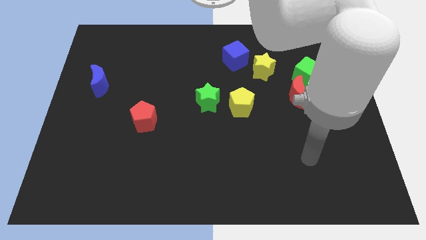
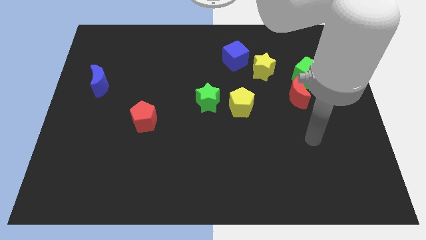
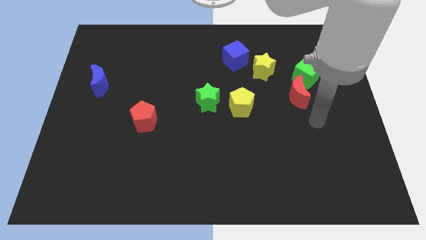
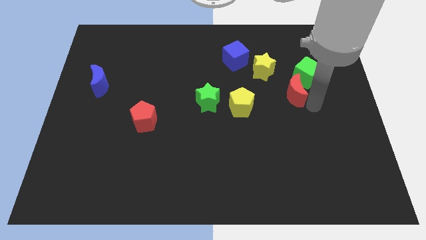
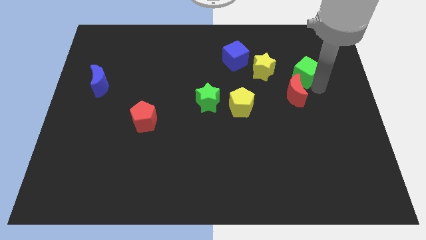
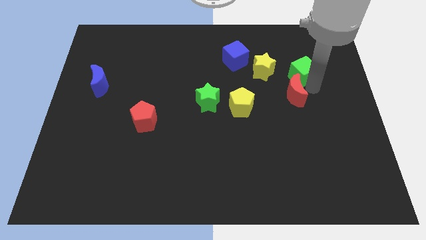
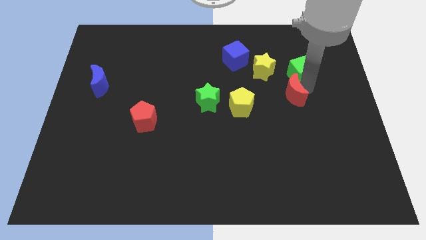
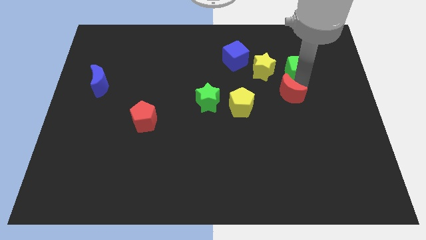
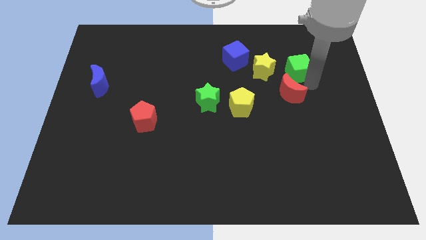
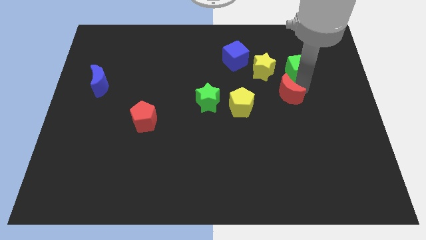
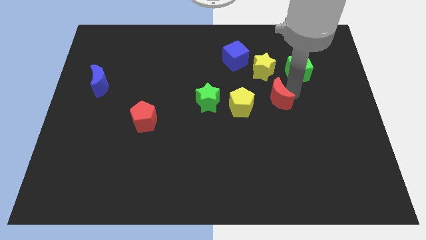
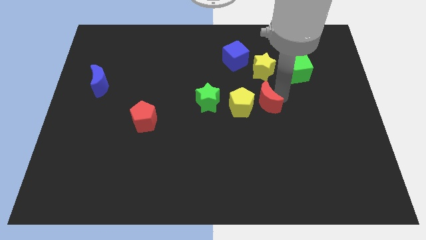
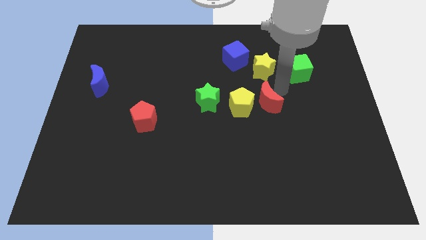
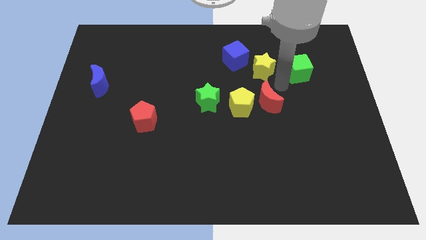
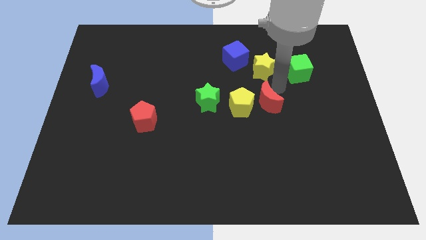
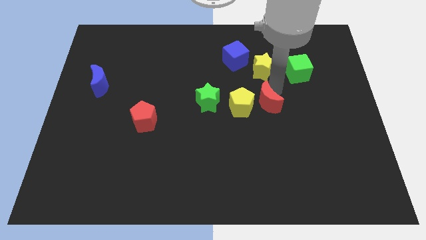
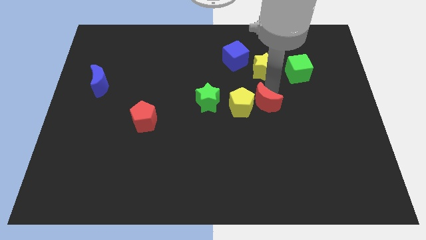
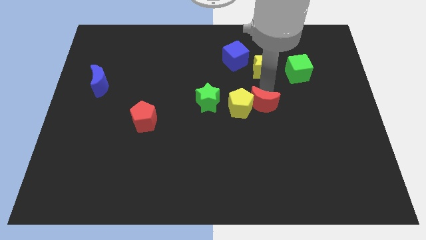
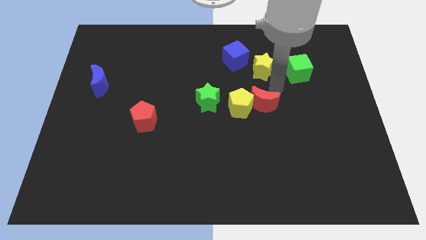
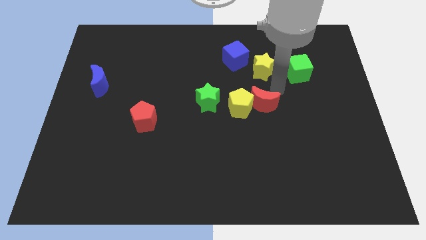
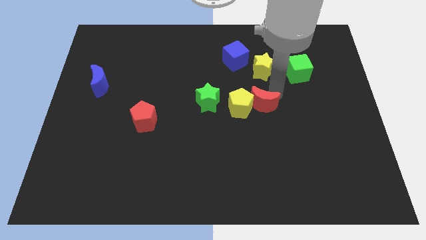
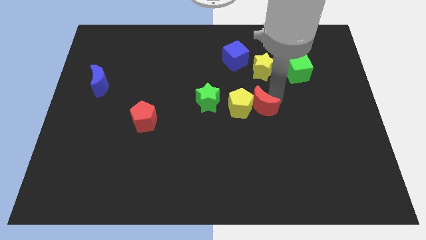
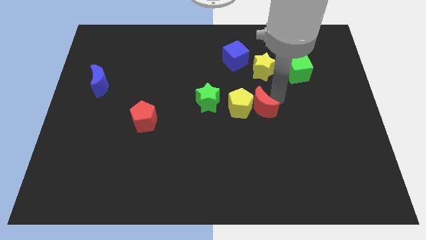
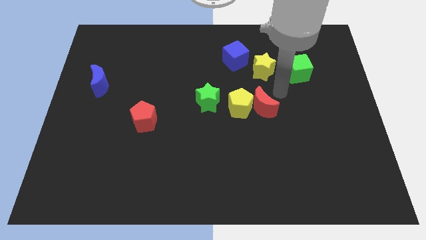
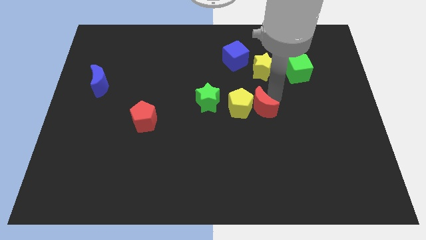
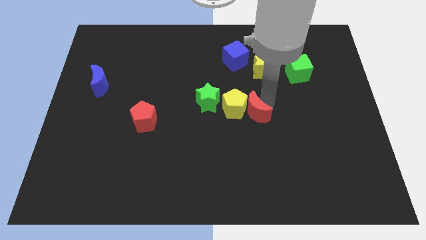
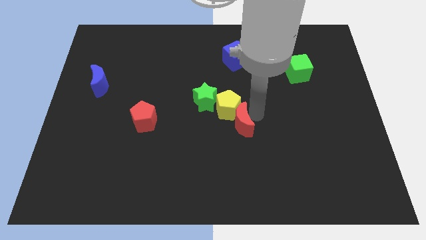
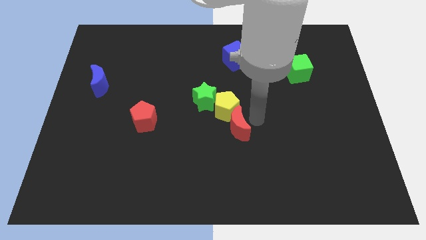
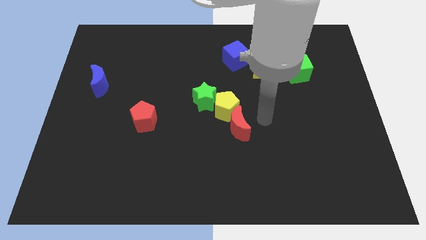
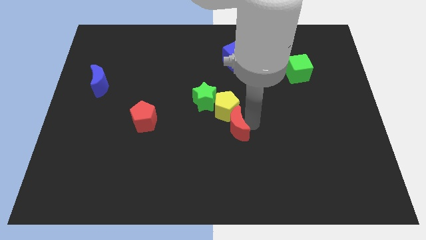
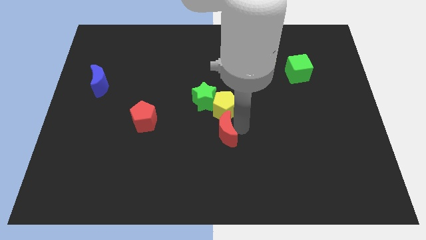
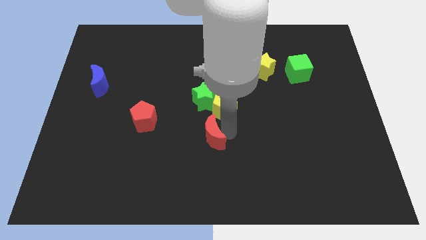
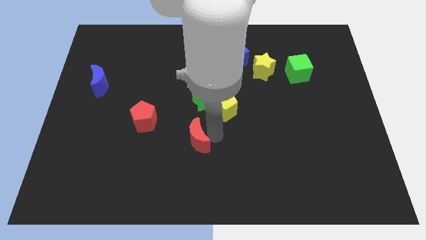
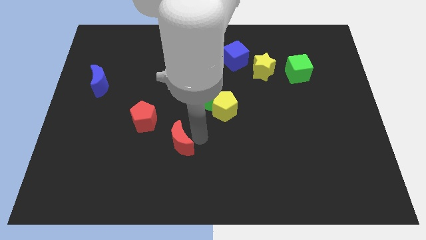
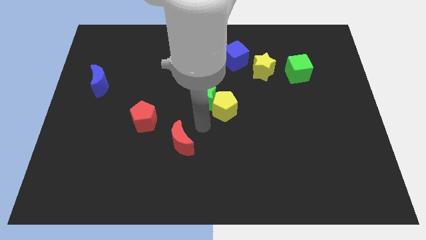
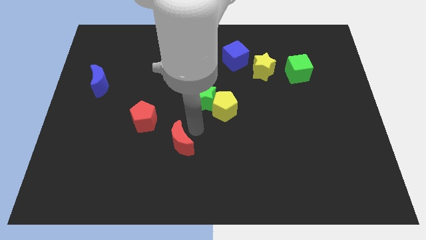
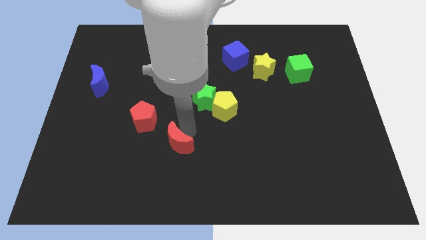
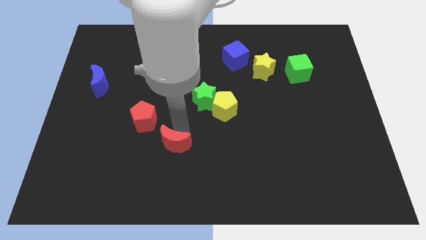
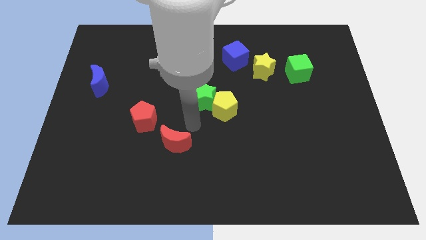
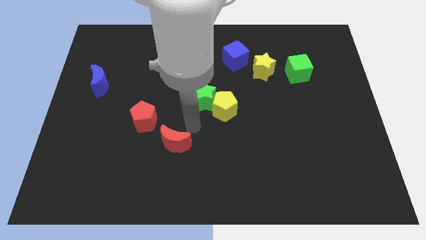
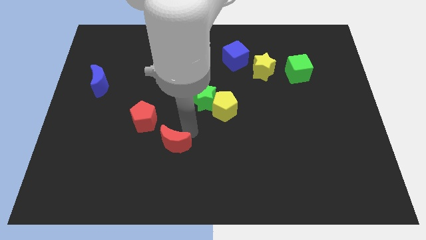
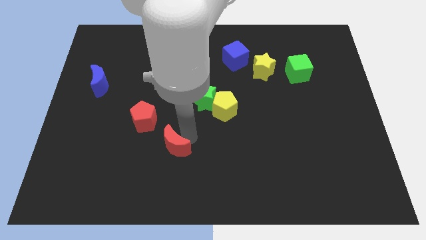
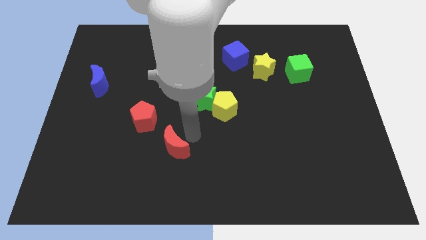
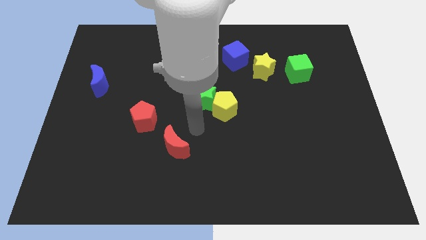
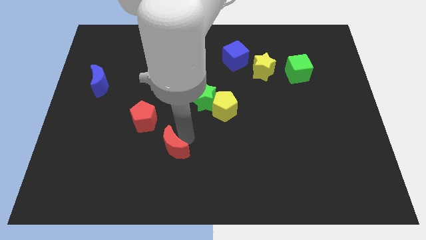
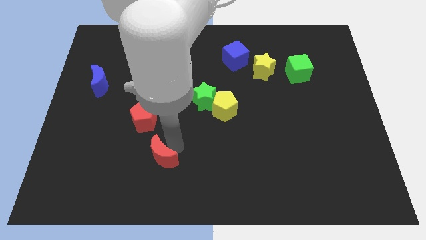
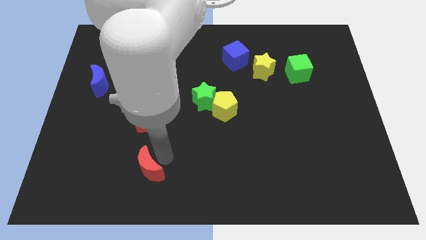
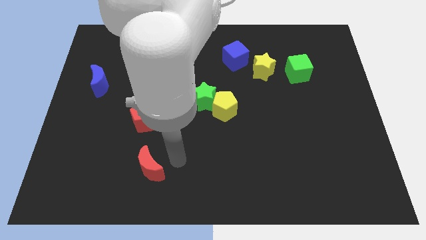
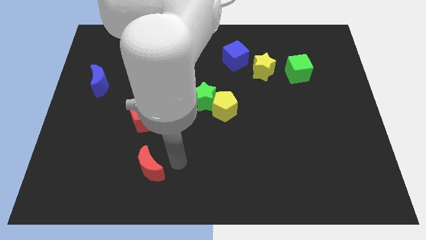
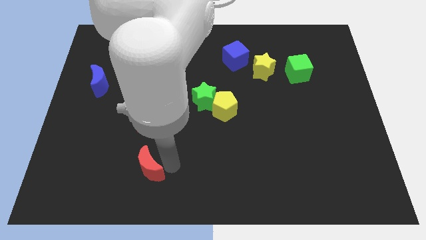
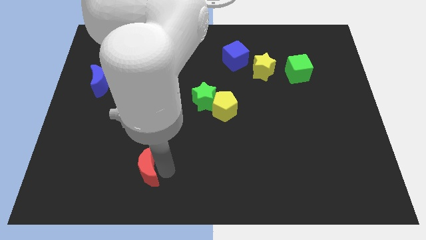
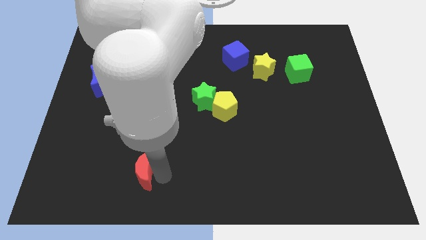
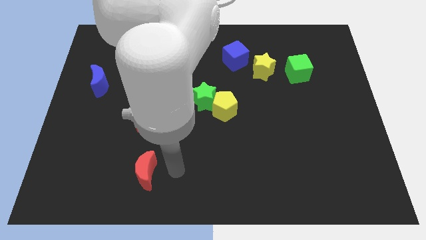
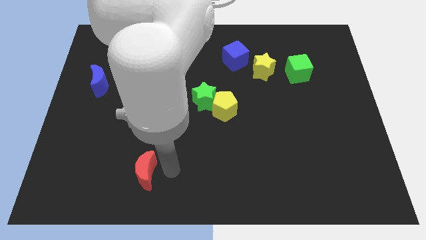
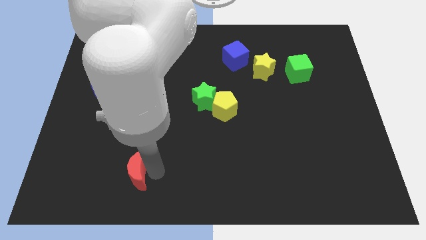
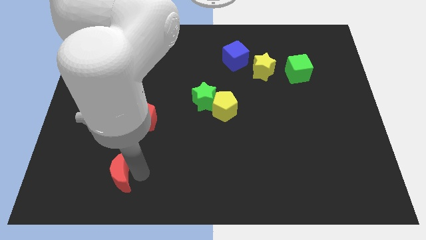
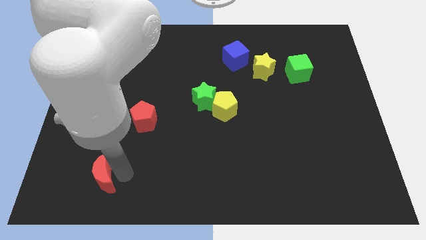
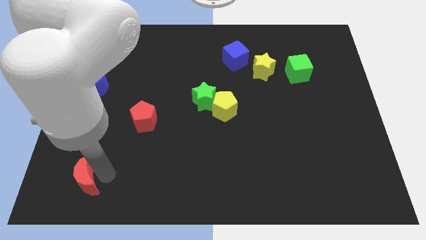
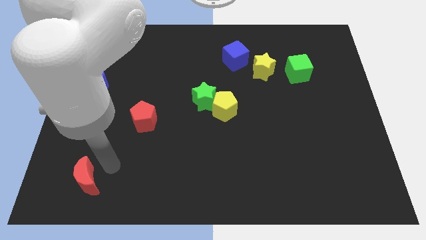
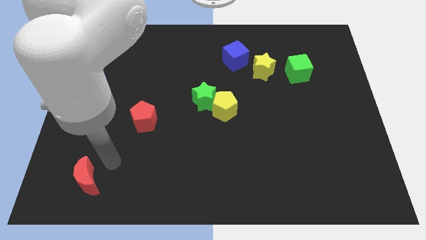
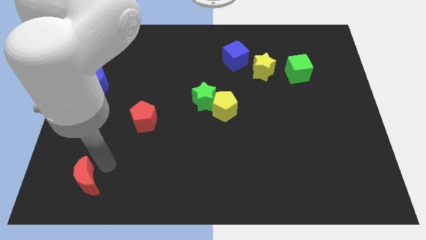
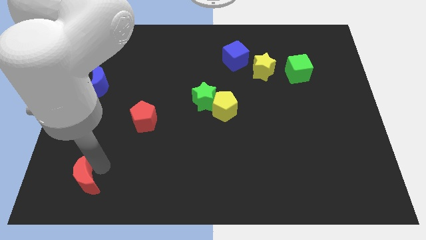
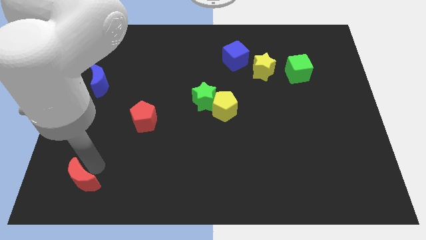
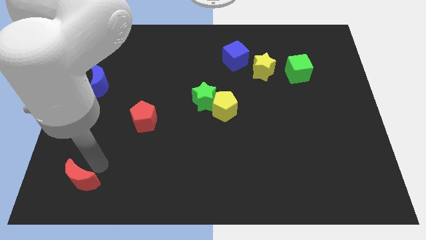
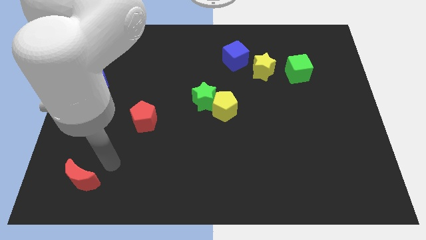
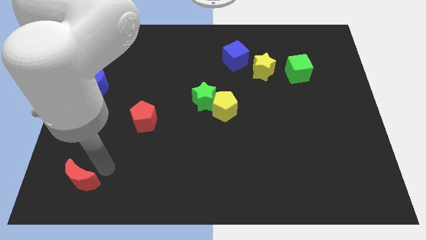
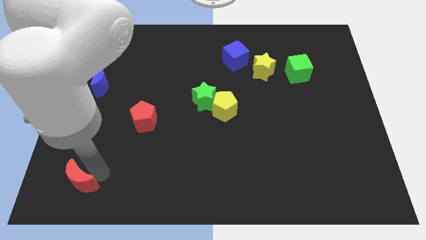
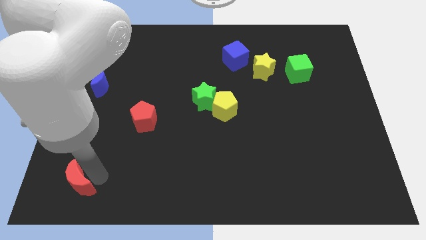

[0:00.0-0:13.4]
put the red moon to the bottom left corner
